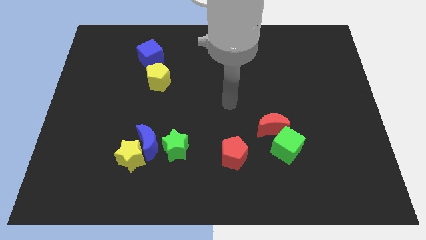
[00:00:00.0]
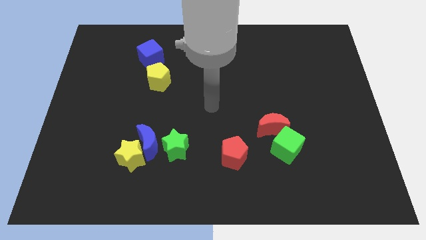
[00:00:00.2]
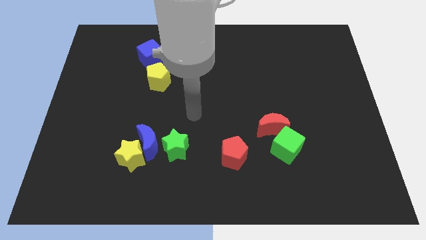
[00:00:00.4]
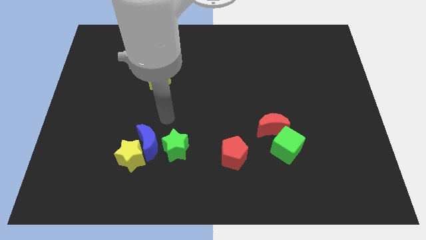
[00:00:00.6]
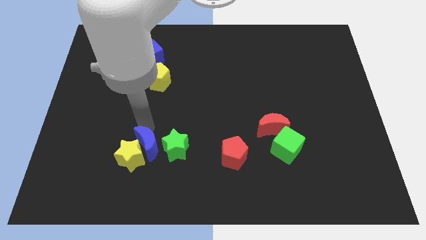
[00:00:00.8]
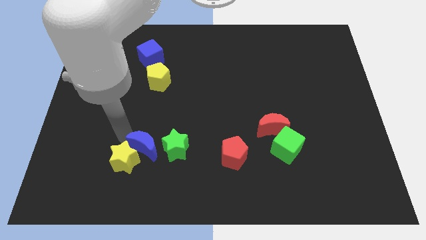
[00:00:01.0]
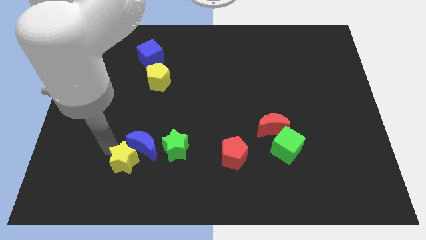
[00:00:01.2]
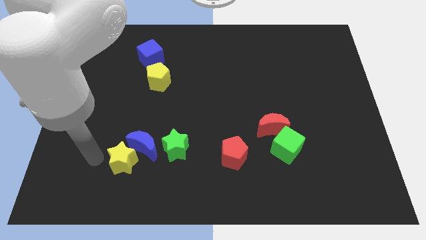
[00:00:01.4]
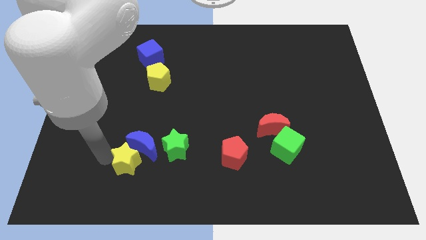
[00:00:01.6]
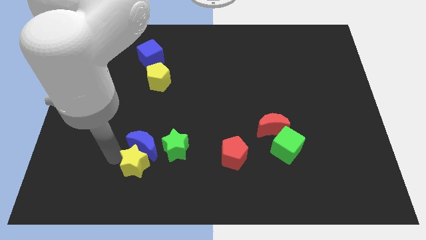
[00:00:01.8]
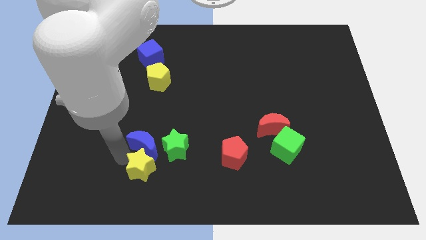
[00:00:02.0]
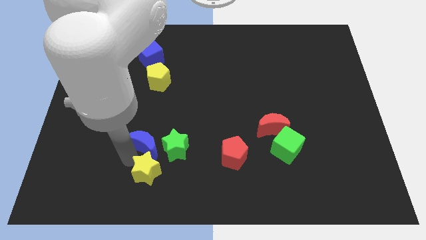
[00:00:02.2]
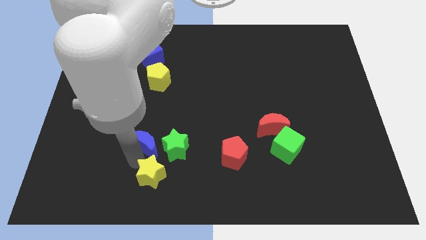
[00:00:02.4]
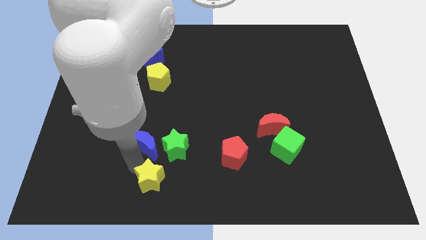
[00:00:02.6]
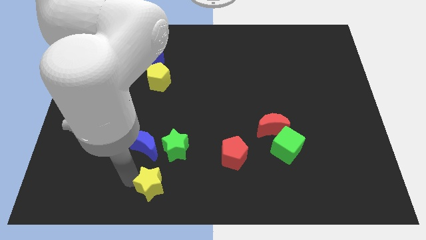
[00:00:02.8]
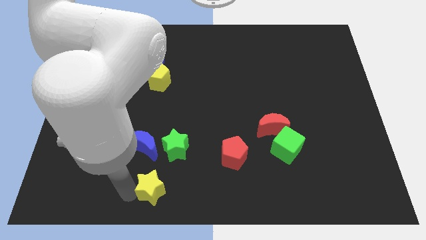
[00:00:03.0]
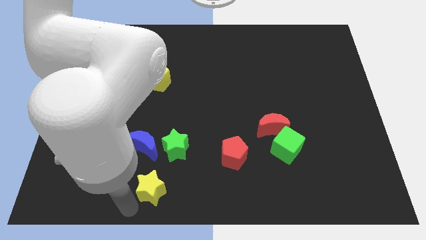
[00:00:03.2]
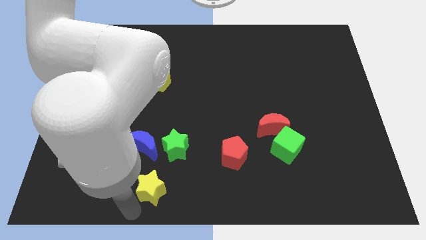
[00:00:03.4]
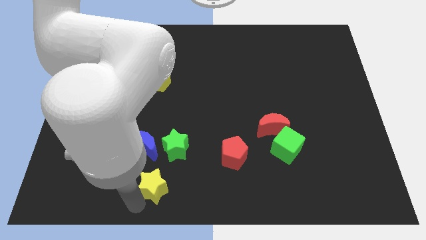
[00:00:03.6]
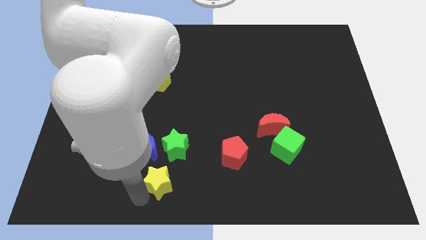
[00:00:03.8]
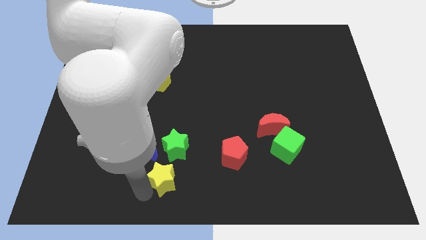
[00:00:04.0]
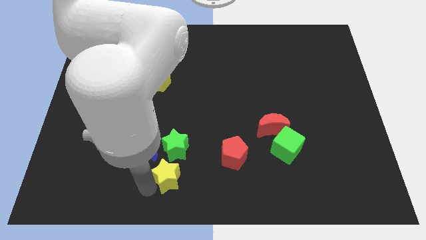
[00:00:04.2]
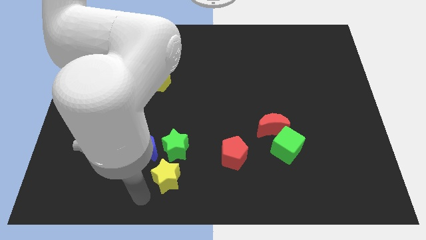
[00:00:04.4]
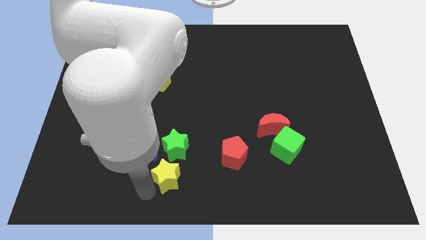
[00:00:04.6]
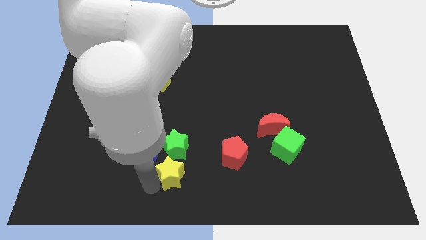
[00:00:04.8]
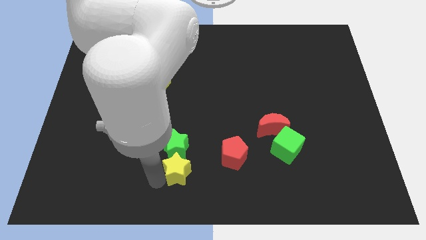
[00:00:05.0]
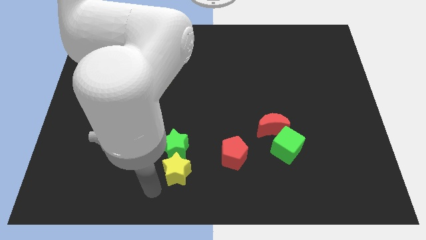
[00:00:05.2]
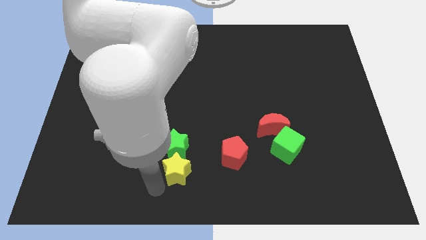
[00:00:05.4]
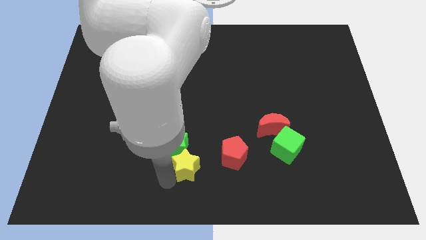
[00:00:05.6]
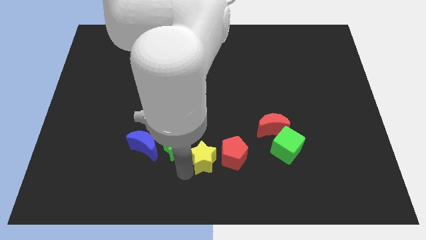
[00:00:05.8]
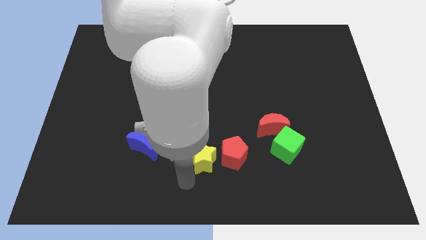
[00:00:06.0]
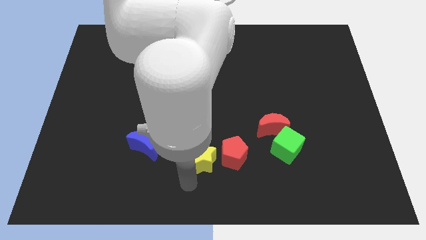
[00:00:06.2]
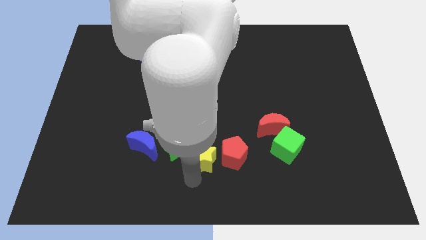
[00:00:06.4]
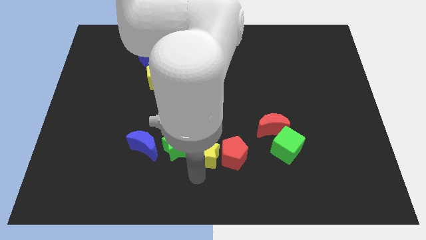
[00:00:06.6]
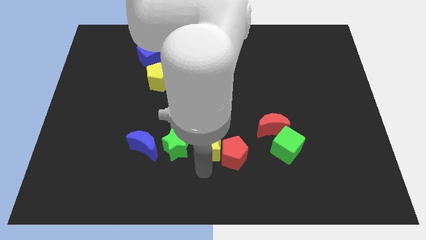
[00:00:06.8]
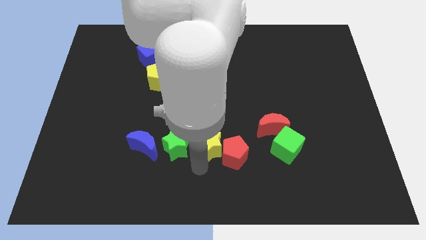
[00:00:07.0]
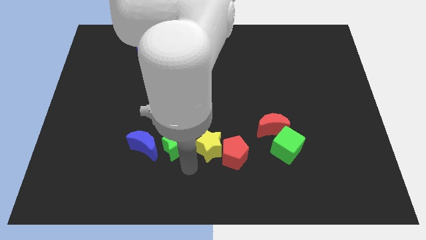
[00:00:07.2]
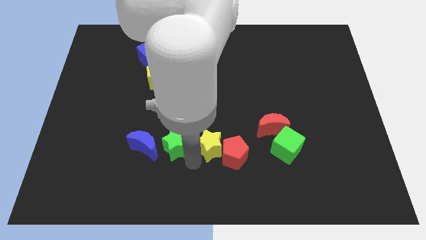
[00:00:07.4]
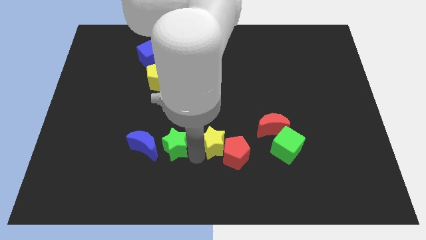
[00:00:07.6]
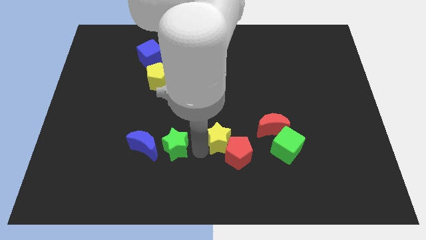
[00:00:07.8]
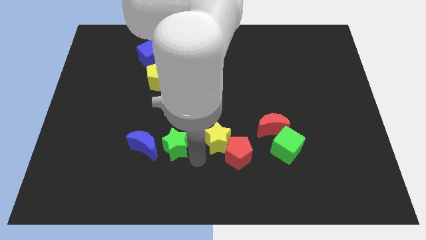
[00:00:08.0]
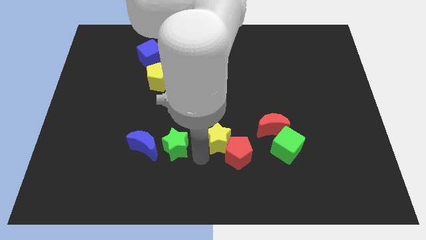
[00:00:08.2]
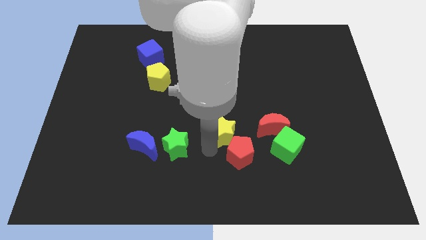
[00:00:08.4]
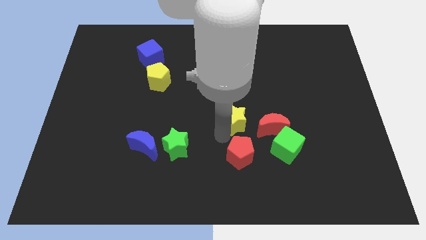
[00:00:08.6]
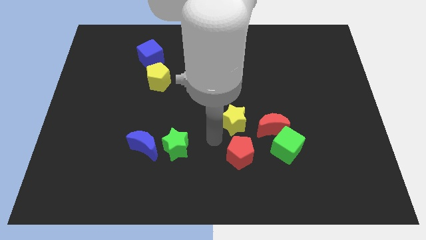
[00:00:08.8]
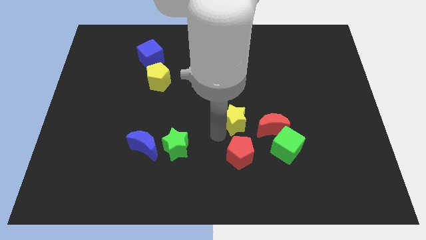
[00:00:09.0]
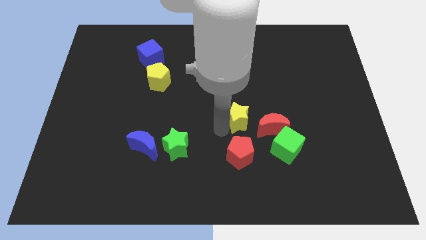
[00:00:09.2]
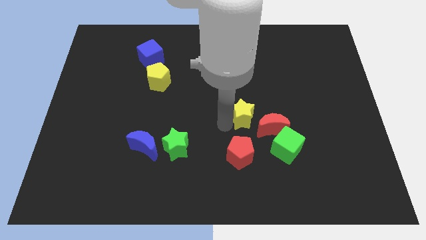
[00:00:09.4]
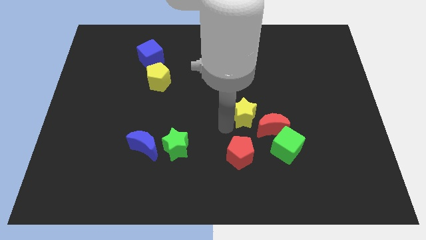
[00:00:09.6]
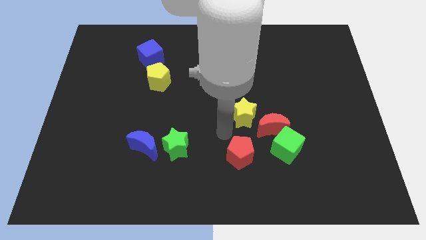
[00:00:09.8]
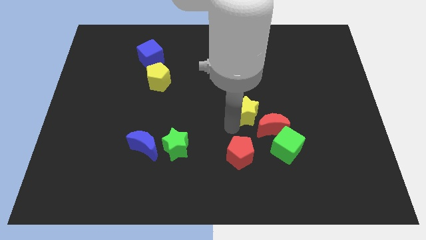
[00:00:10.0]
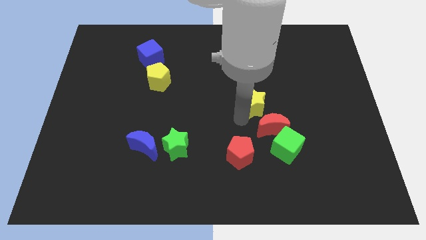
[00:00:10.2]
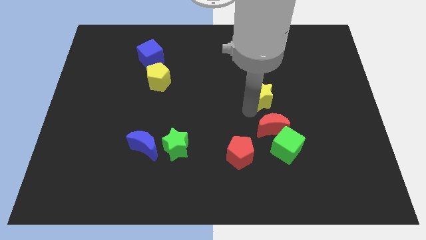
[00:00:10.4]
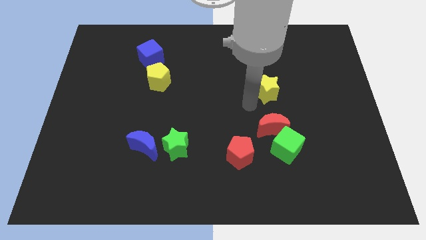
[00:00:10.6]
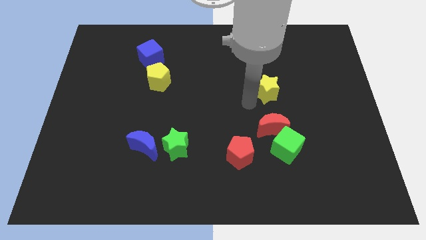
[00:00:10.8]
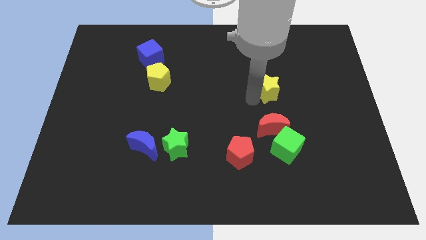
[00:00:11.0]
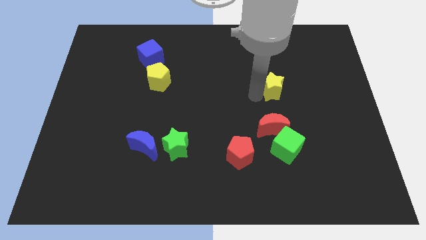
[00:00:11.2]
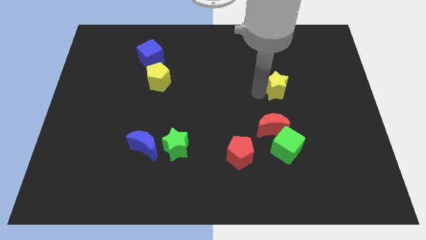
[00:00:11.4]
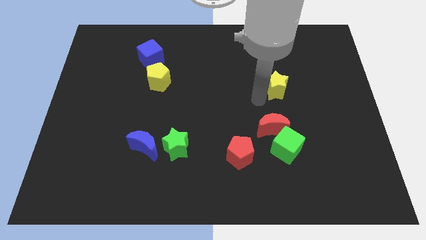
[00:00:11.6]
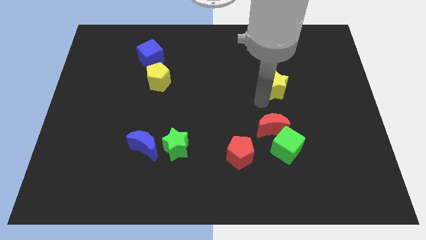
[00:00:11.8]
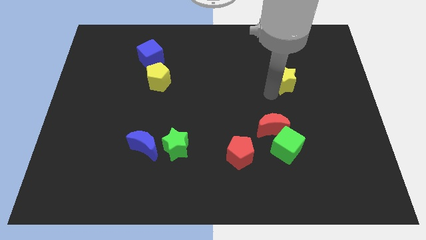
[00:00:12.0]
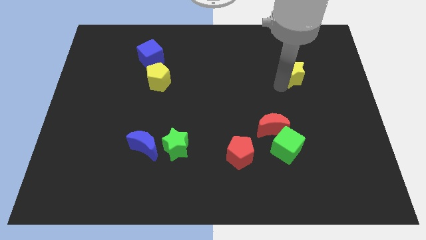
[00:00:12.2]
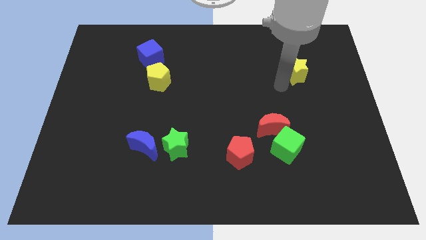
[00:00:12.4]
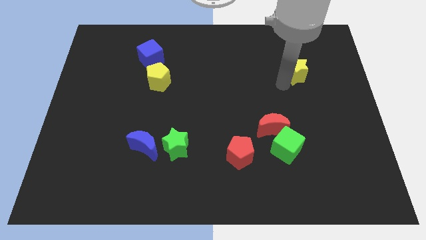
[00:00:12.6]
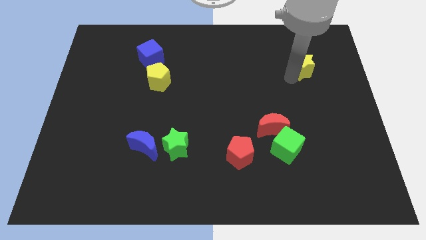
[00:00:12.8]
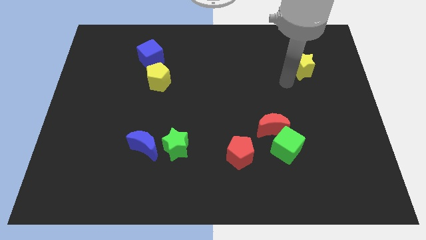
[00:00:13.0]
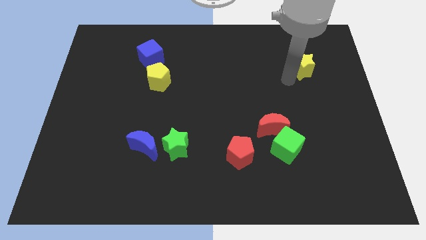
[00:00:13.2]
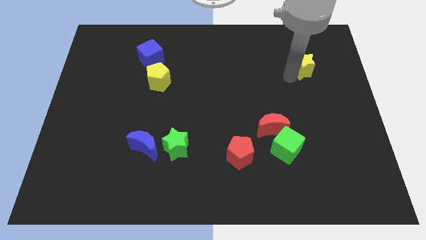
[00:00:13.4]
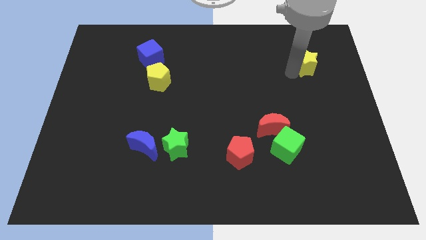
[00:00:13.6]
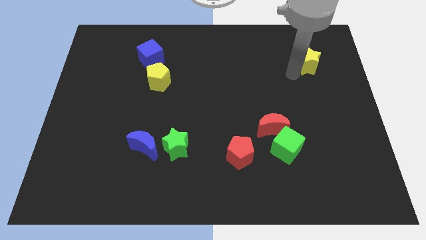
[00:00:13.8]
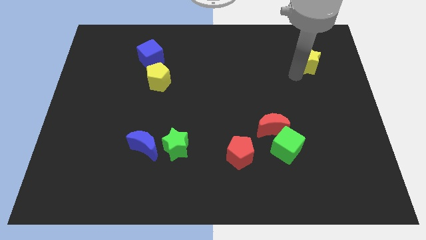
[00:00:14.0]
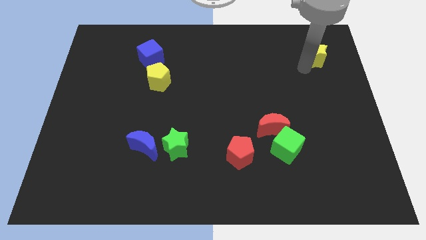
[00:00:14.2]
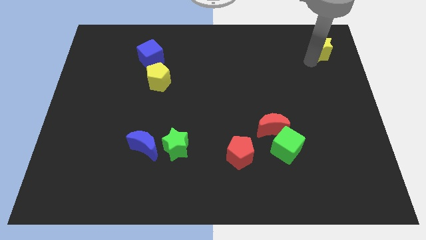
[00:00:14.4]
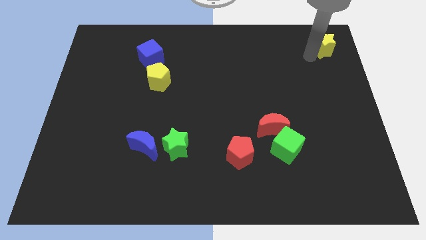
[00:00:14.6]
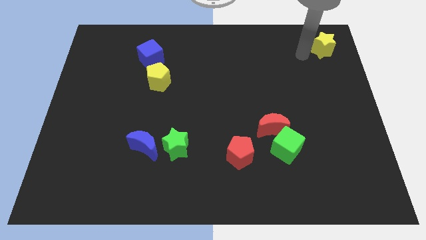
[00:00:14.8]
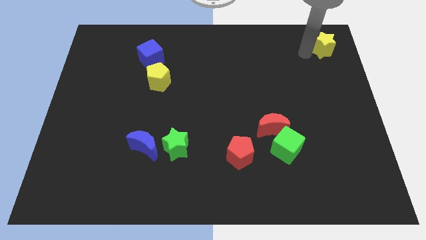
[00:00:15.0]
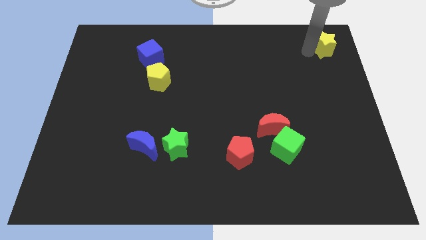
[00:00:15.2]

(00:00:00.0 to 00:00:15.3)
slide the yellow star to the top right
